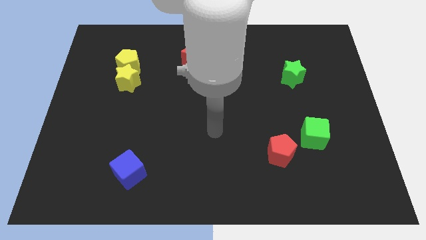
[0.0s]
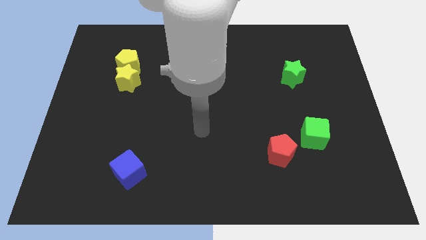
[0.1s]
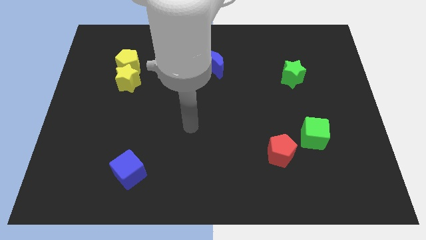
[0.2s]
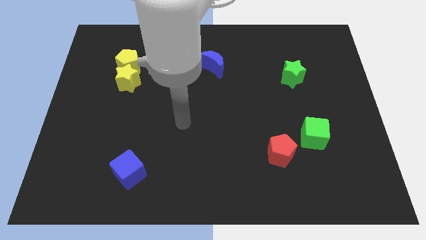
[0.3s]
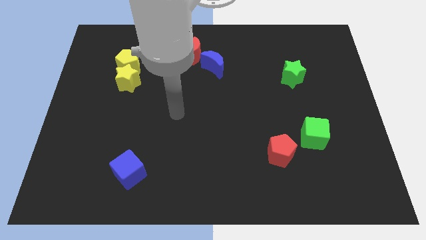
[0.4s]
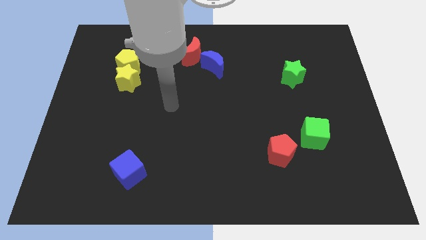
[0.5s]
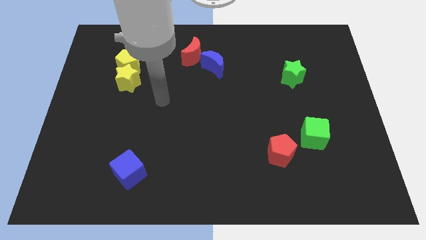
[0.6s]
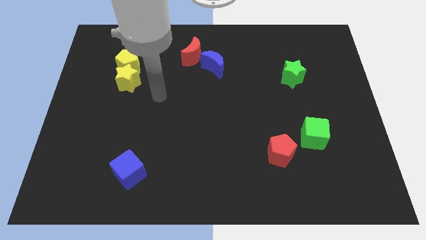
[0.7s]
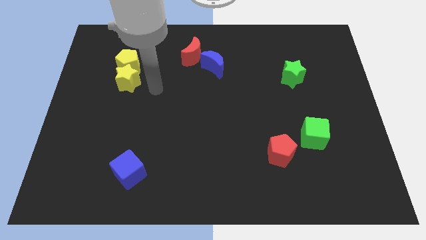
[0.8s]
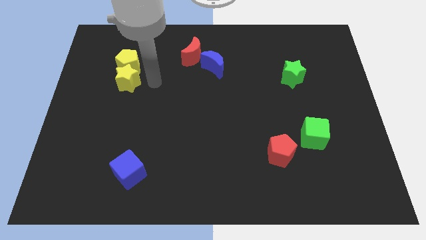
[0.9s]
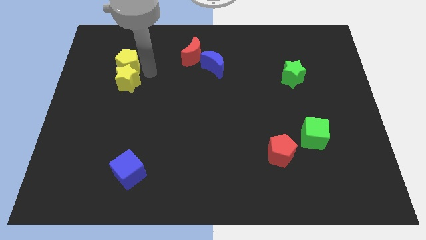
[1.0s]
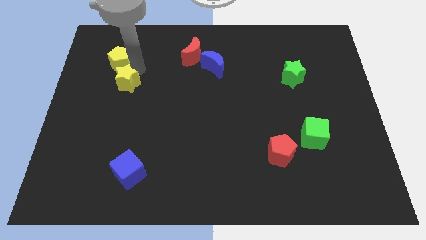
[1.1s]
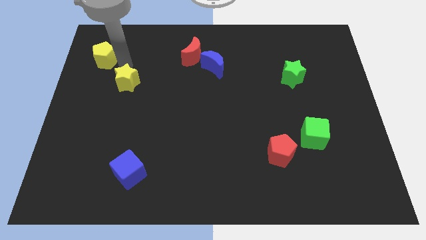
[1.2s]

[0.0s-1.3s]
move the yellow star away from the yellow pentagon

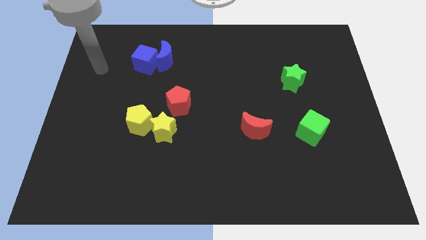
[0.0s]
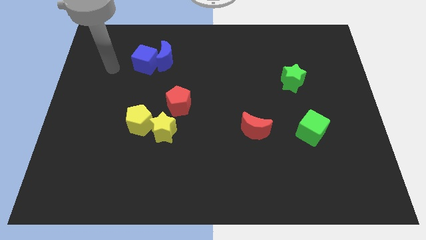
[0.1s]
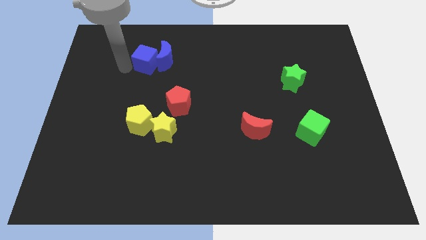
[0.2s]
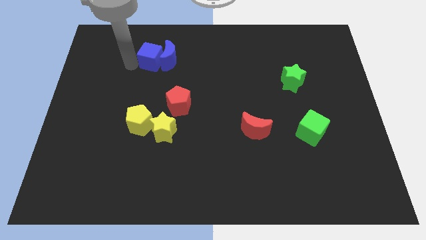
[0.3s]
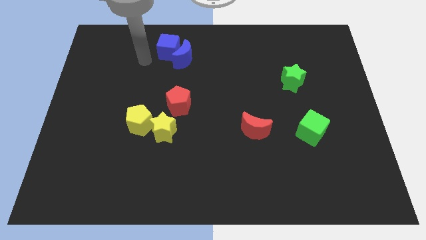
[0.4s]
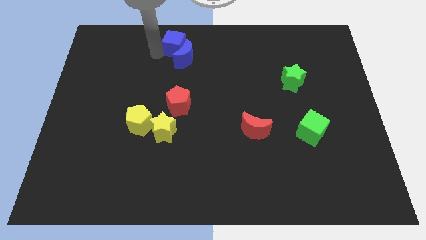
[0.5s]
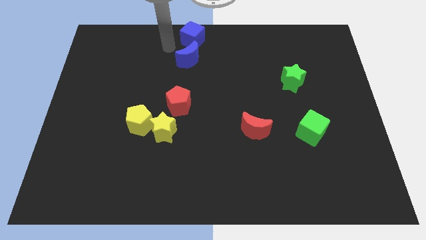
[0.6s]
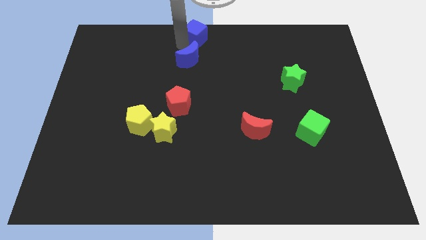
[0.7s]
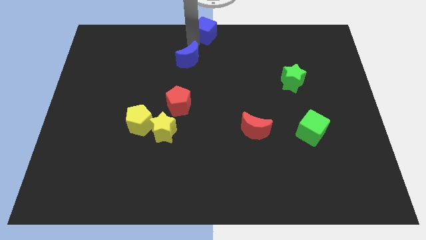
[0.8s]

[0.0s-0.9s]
separate the blue moon from the blue cube

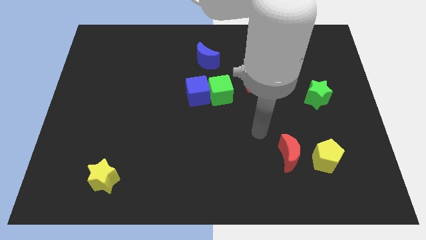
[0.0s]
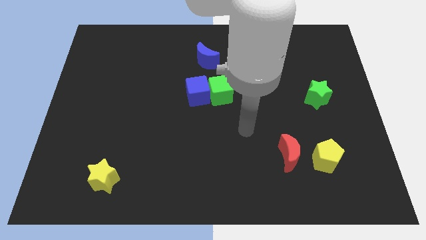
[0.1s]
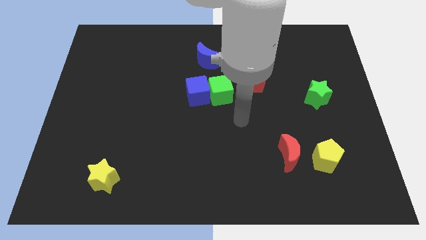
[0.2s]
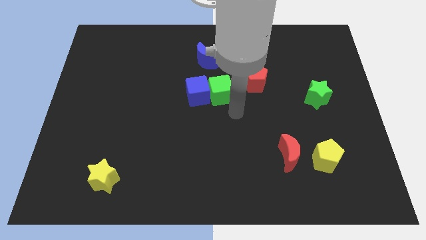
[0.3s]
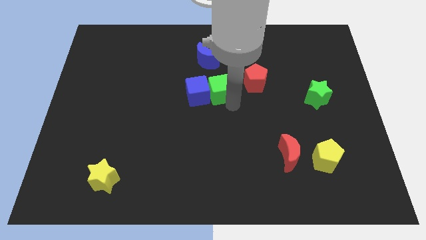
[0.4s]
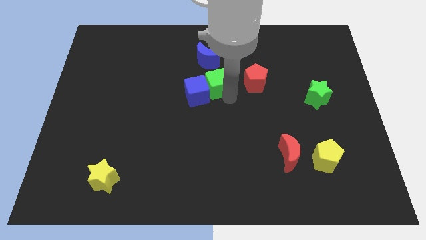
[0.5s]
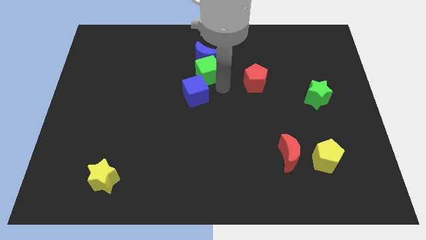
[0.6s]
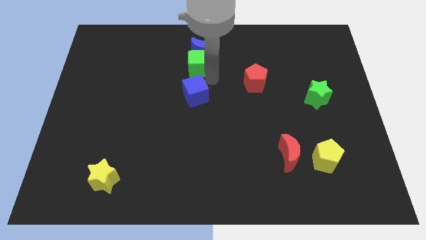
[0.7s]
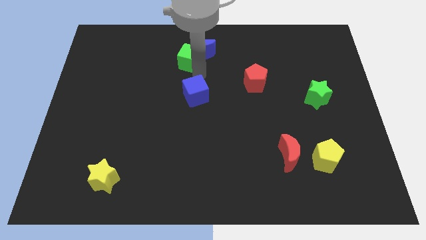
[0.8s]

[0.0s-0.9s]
separate the blue cube from the green cube

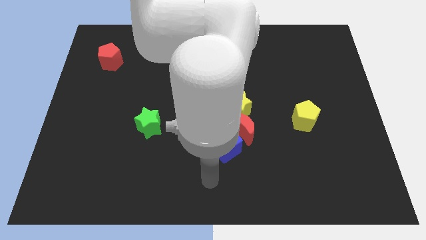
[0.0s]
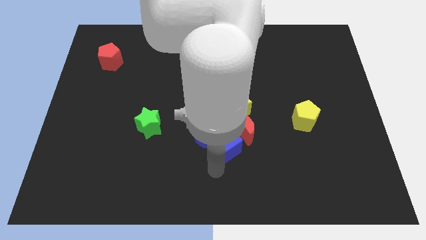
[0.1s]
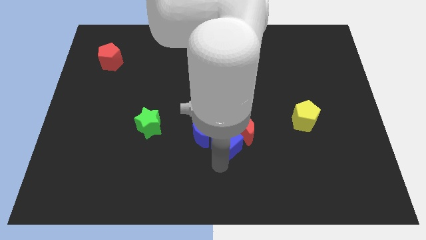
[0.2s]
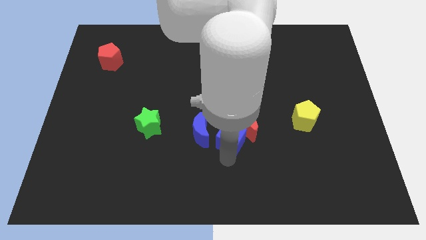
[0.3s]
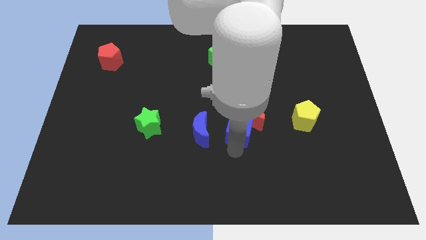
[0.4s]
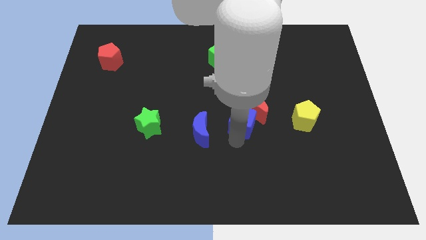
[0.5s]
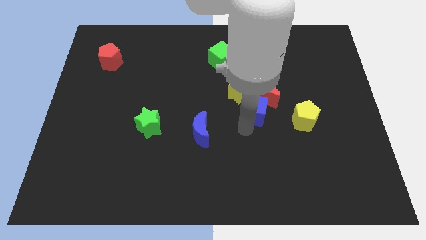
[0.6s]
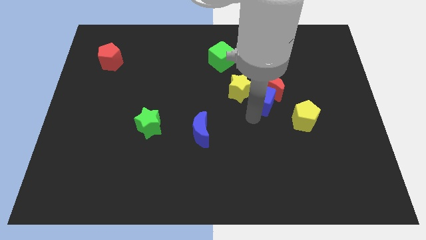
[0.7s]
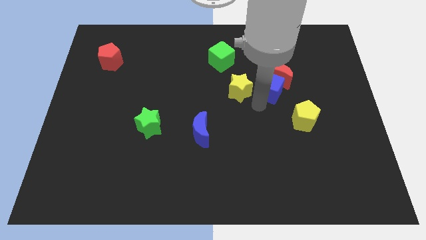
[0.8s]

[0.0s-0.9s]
separate the yellow star from the red moon

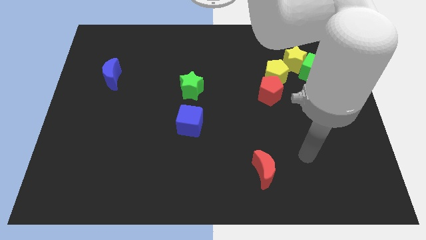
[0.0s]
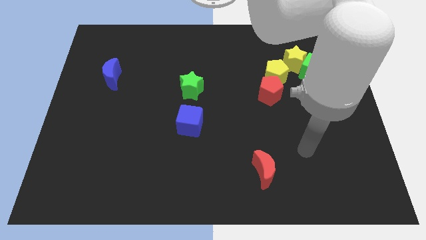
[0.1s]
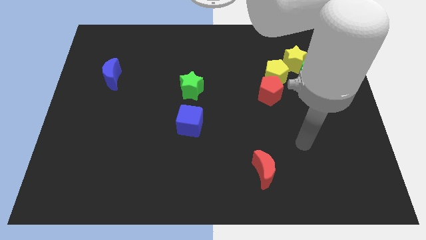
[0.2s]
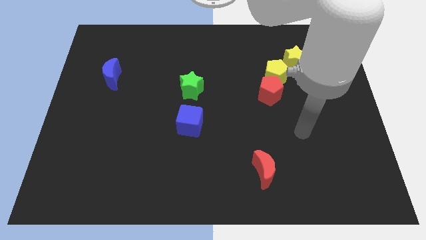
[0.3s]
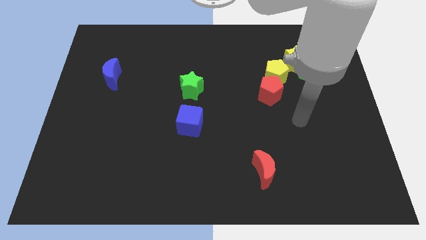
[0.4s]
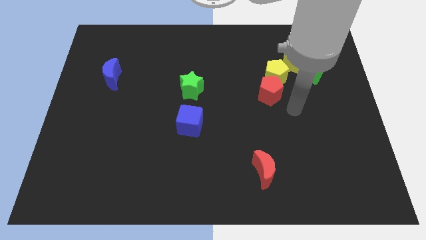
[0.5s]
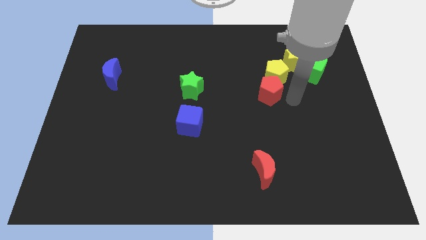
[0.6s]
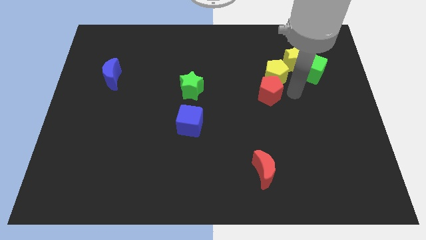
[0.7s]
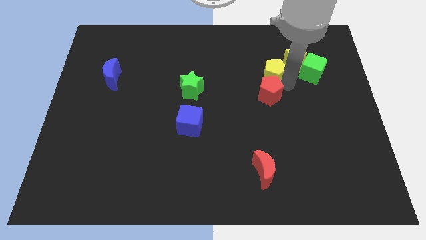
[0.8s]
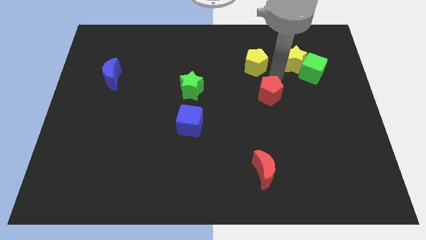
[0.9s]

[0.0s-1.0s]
pull the red pentagon apart from the yellow pentagon

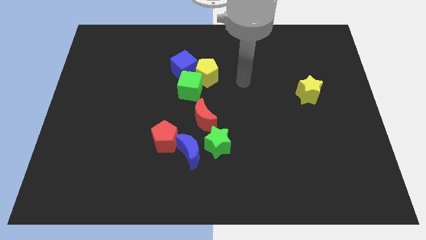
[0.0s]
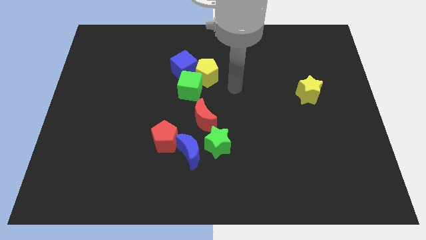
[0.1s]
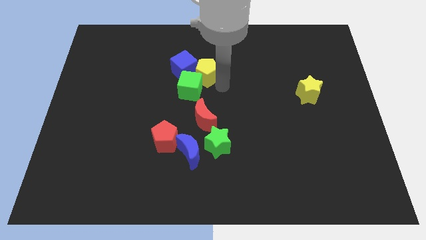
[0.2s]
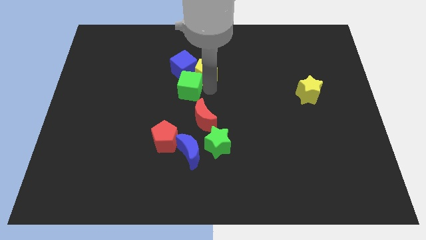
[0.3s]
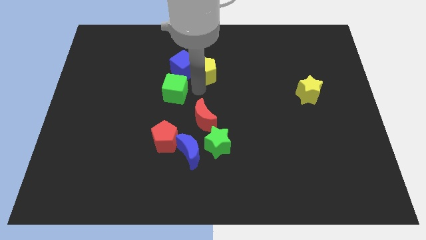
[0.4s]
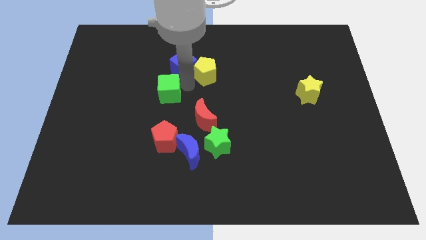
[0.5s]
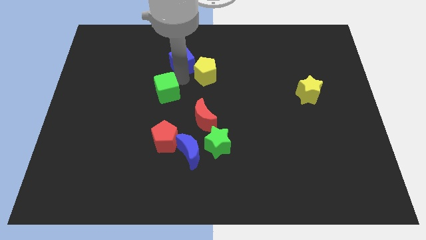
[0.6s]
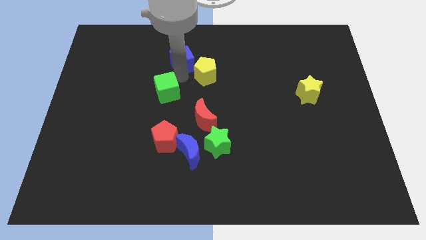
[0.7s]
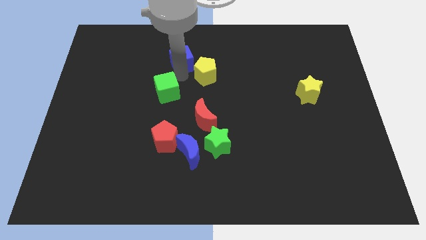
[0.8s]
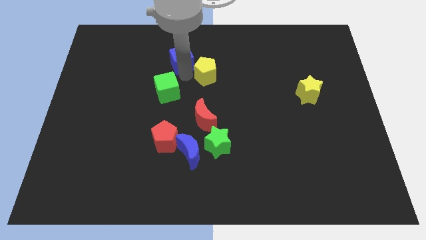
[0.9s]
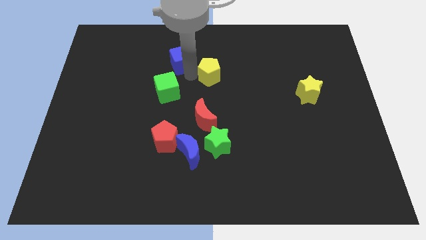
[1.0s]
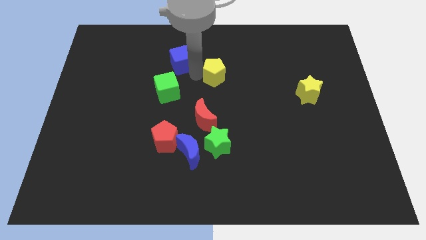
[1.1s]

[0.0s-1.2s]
pull the yellow pentagon apart from the green cube and blue cube

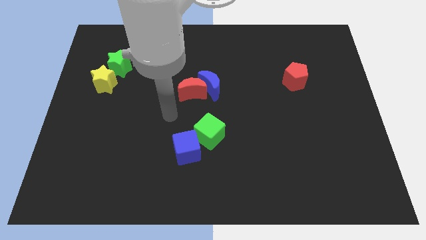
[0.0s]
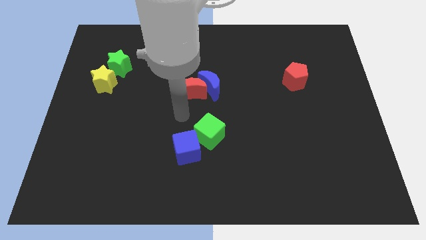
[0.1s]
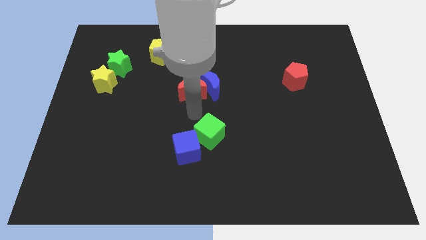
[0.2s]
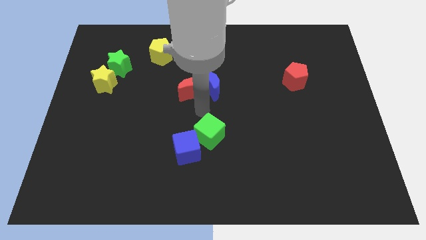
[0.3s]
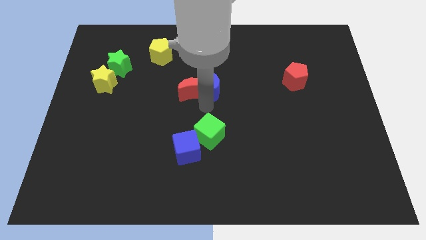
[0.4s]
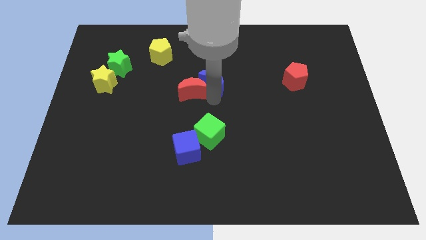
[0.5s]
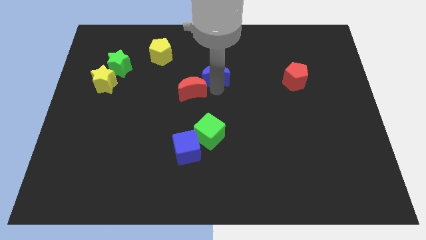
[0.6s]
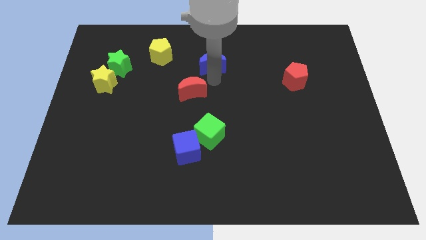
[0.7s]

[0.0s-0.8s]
separate the red moon from the blue moon

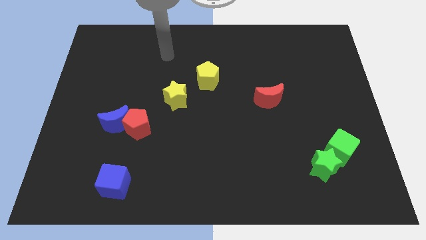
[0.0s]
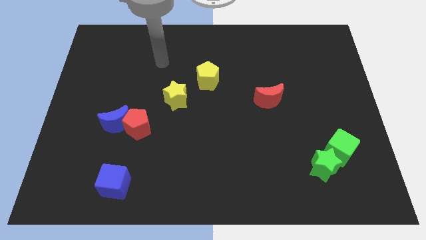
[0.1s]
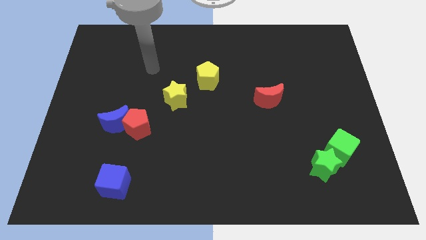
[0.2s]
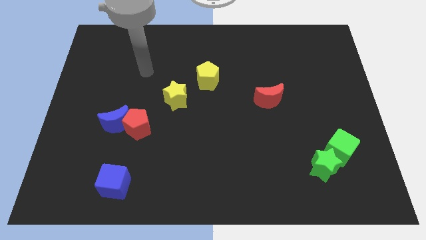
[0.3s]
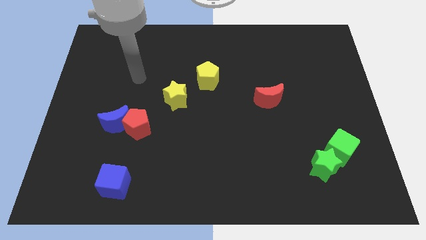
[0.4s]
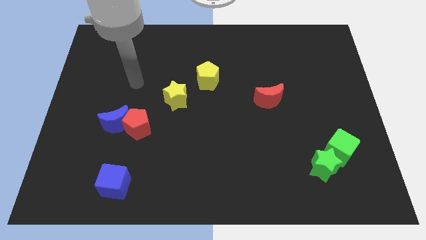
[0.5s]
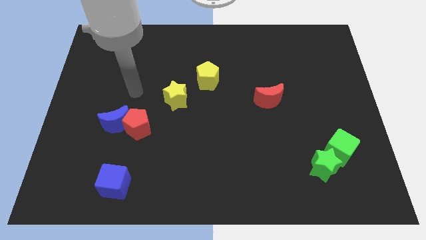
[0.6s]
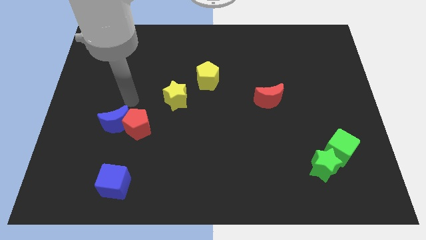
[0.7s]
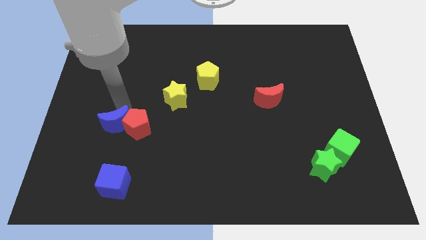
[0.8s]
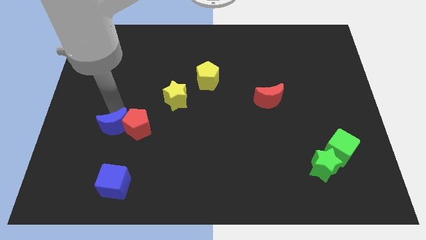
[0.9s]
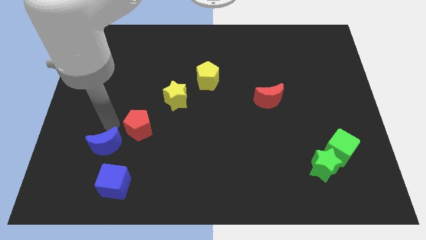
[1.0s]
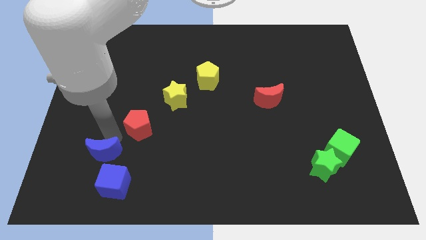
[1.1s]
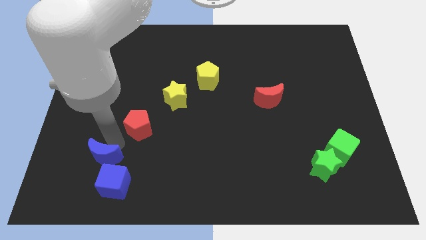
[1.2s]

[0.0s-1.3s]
separate the red pentagon from the blue moon

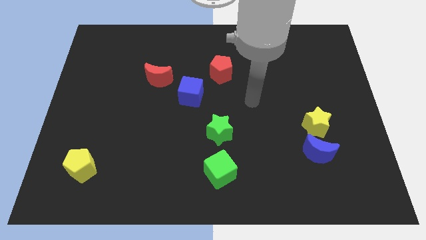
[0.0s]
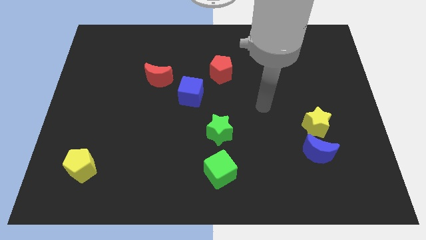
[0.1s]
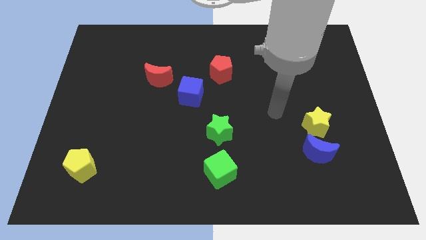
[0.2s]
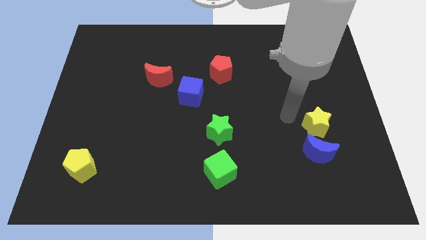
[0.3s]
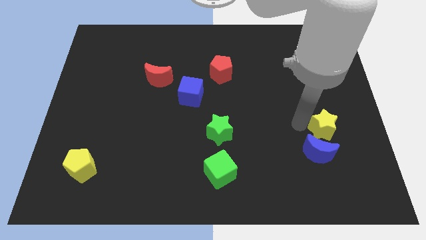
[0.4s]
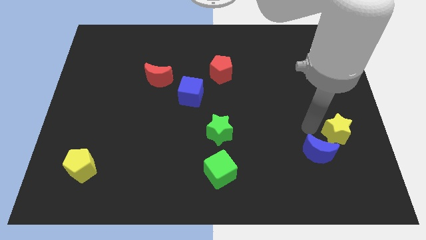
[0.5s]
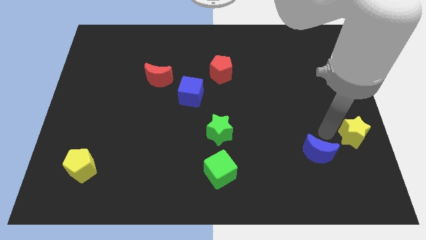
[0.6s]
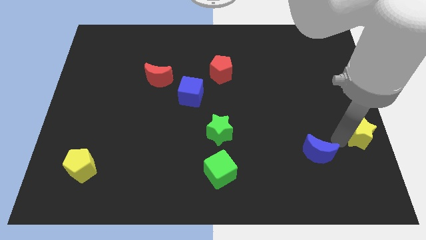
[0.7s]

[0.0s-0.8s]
pull the blue moon apart from the yellow star

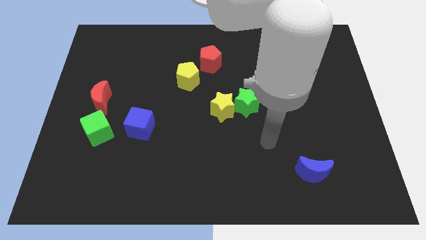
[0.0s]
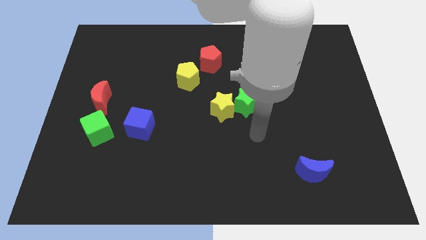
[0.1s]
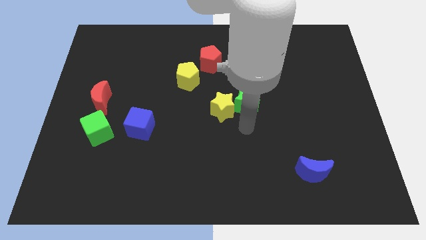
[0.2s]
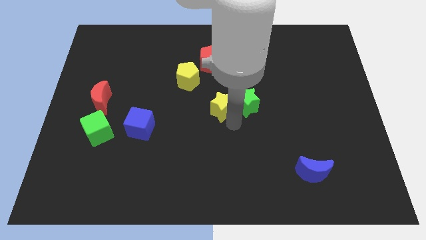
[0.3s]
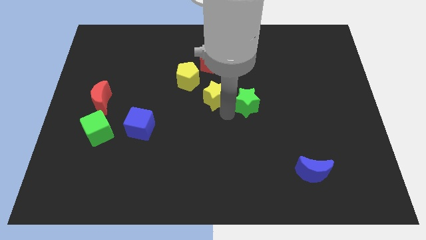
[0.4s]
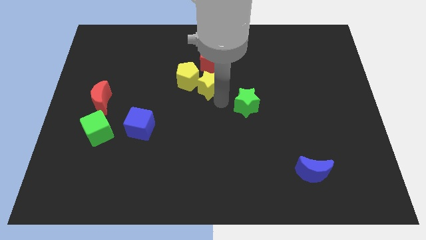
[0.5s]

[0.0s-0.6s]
separate the green star from the yellow star
